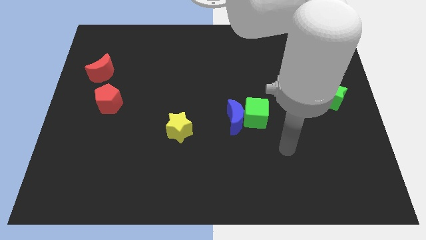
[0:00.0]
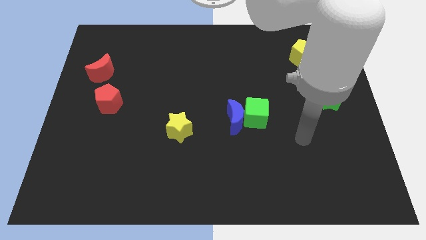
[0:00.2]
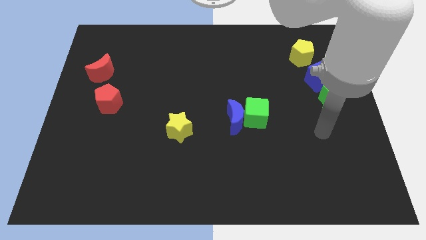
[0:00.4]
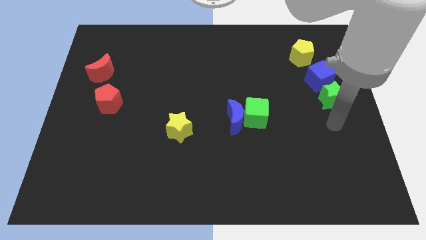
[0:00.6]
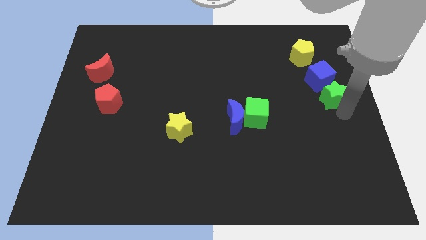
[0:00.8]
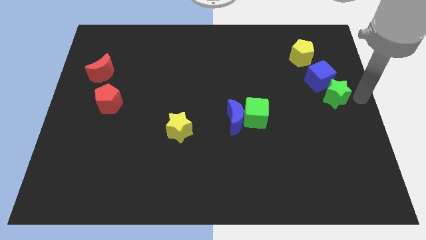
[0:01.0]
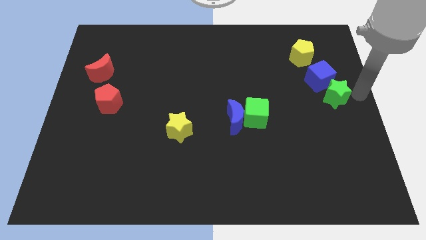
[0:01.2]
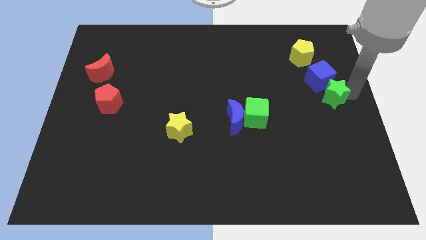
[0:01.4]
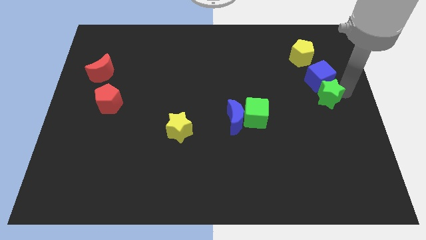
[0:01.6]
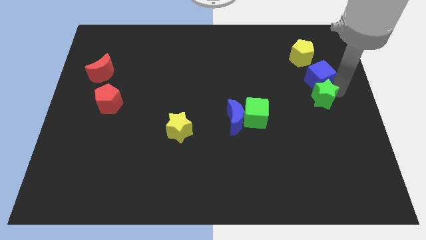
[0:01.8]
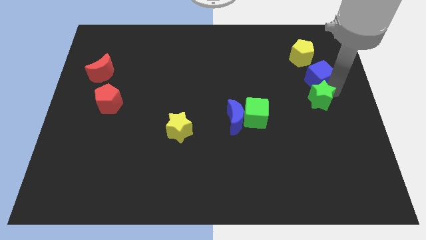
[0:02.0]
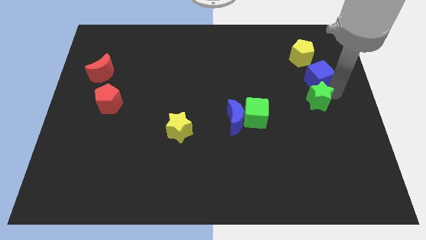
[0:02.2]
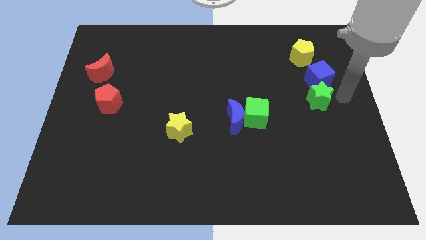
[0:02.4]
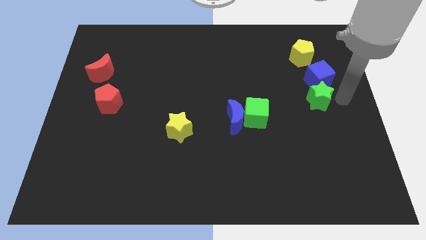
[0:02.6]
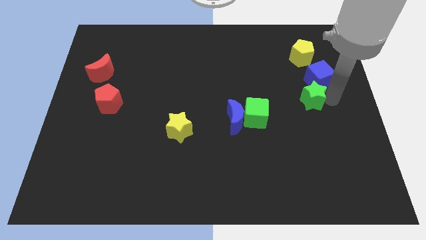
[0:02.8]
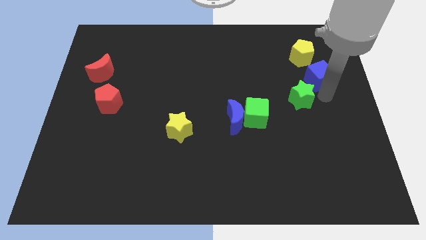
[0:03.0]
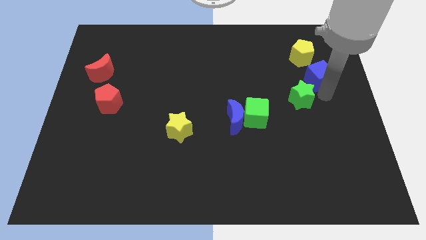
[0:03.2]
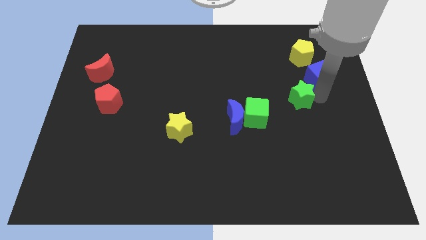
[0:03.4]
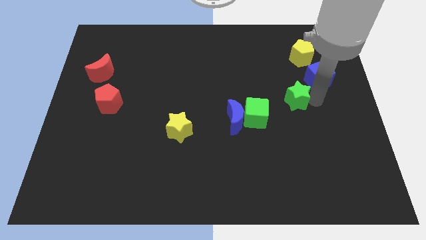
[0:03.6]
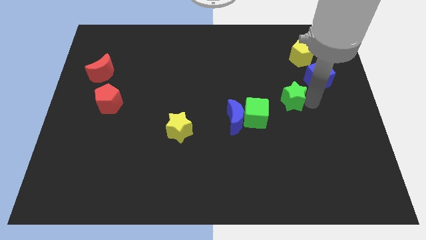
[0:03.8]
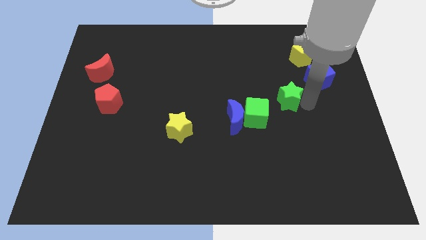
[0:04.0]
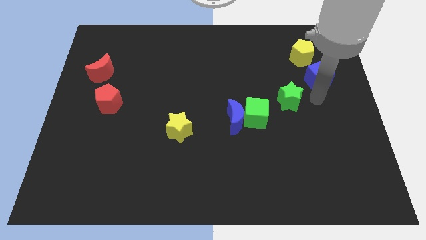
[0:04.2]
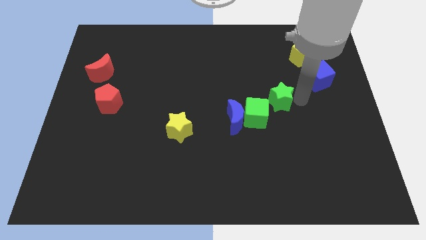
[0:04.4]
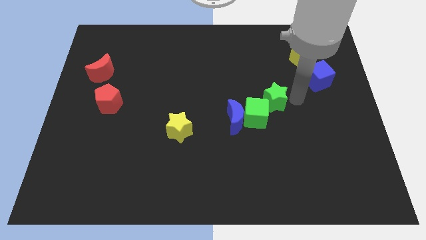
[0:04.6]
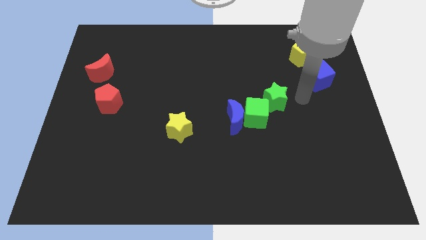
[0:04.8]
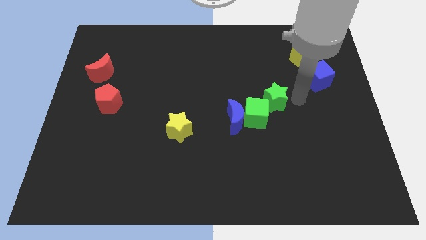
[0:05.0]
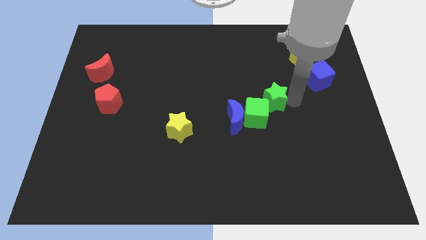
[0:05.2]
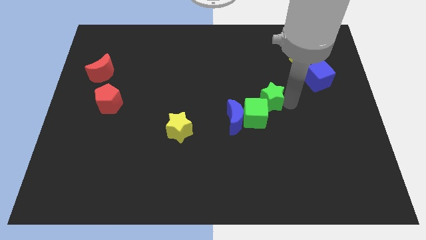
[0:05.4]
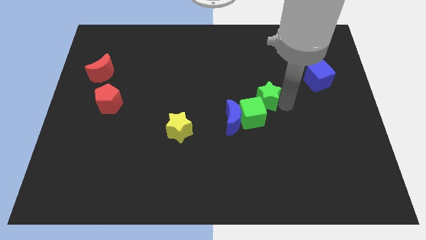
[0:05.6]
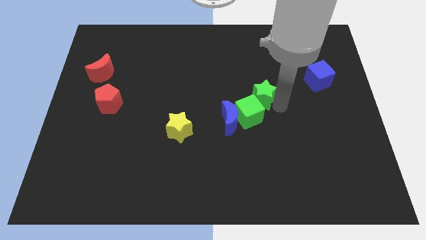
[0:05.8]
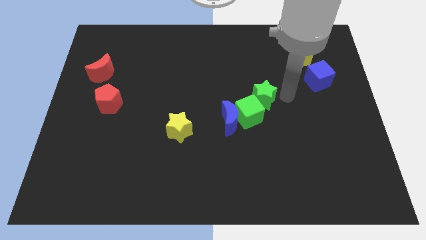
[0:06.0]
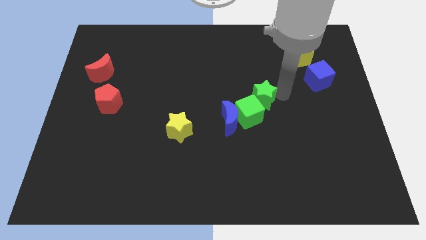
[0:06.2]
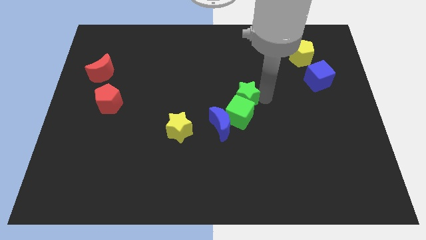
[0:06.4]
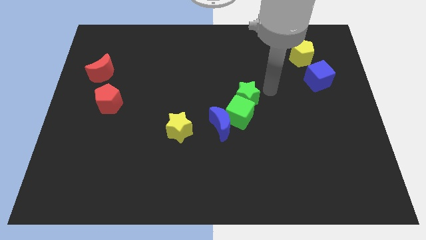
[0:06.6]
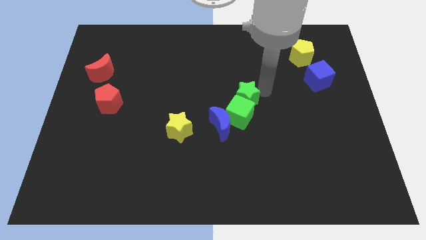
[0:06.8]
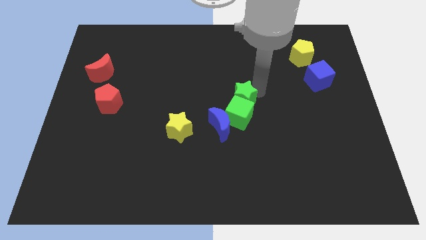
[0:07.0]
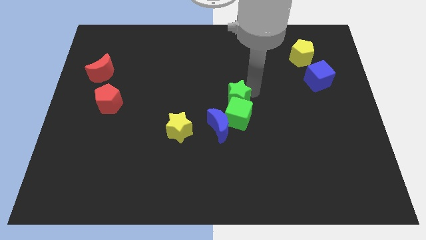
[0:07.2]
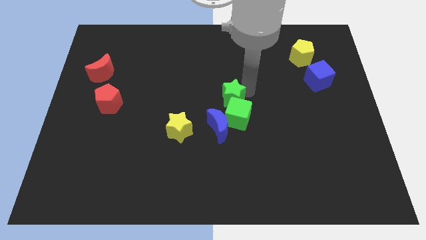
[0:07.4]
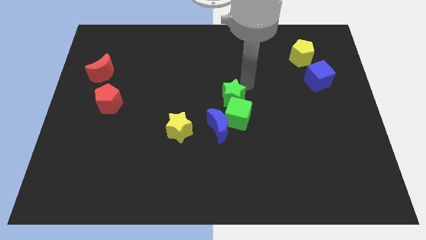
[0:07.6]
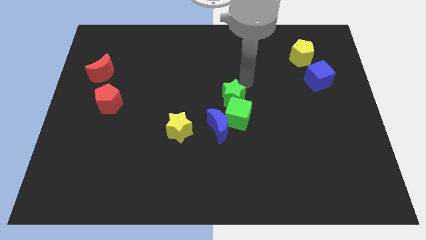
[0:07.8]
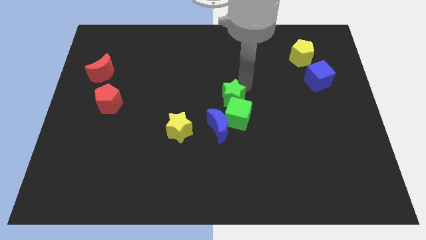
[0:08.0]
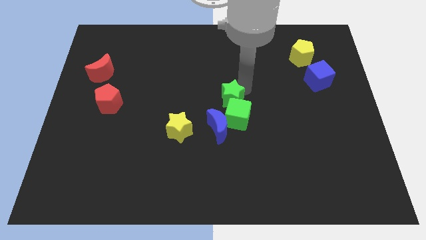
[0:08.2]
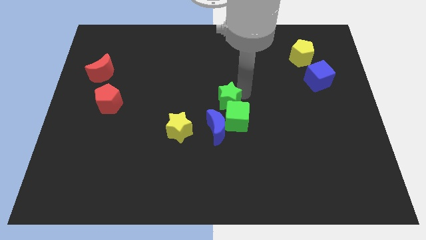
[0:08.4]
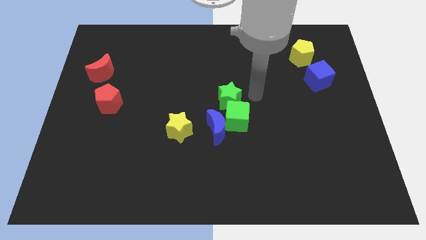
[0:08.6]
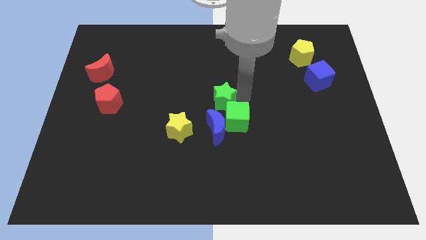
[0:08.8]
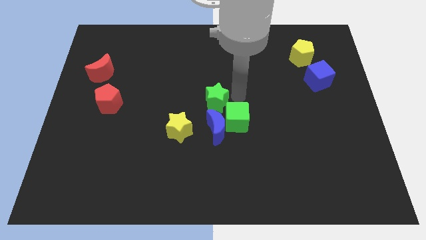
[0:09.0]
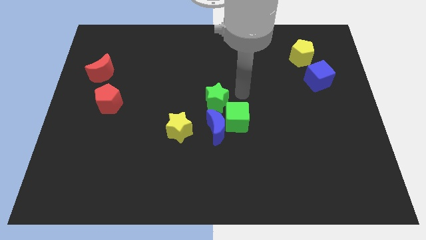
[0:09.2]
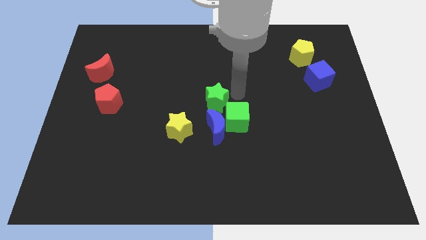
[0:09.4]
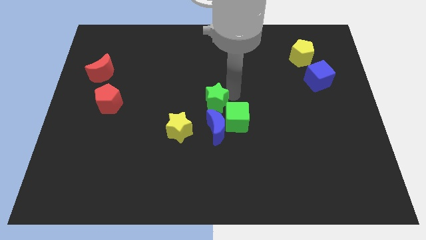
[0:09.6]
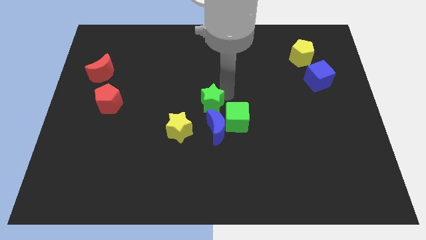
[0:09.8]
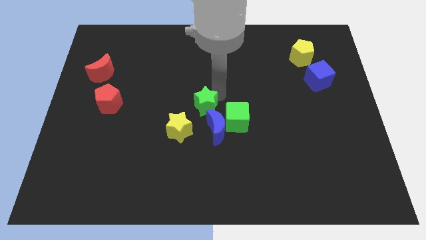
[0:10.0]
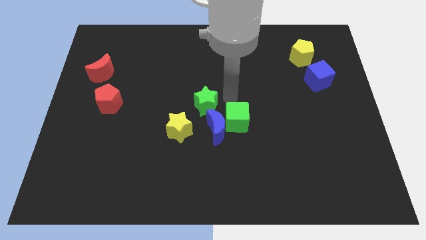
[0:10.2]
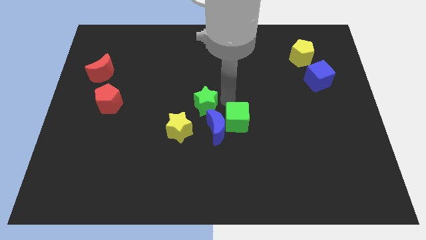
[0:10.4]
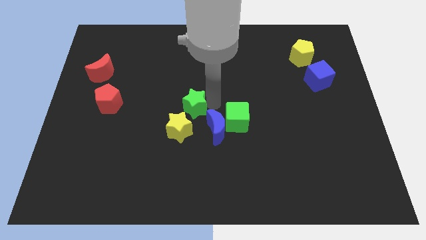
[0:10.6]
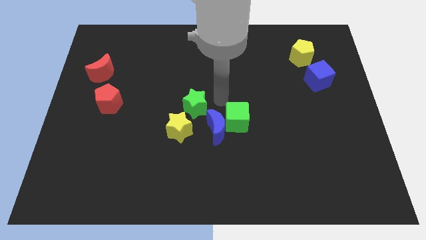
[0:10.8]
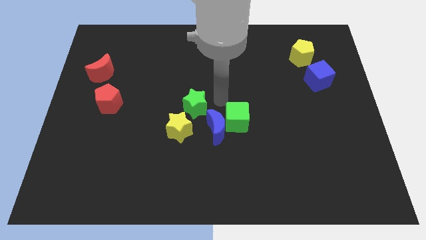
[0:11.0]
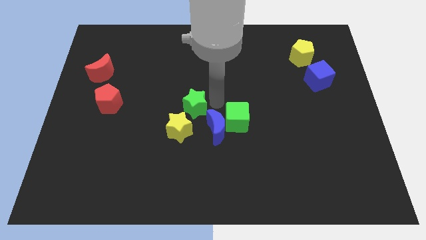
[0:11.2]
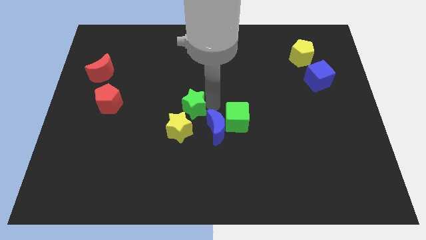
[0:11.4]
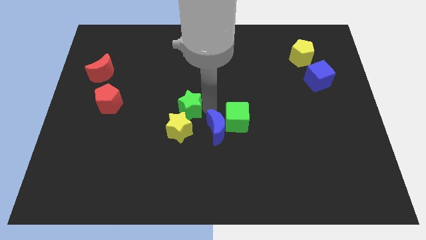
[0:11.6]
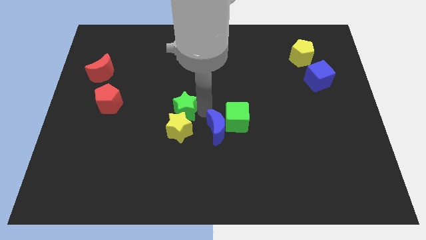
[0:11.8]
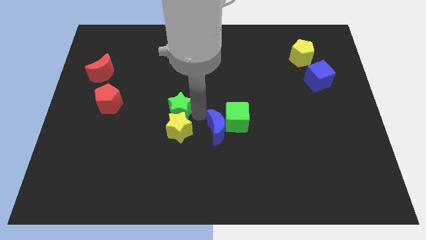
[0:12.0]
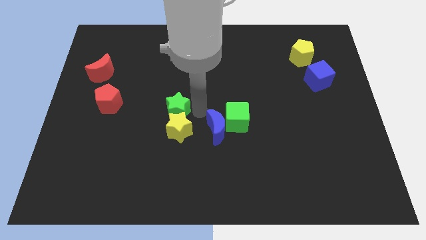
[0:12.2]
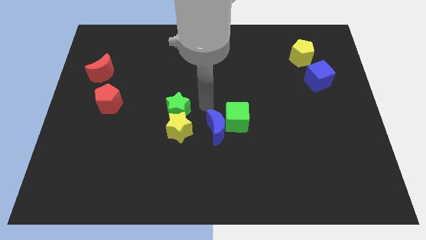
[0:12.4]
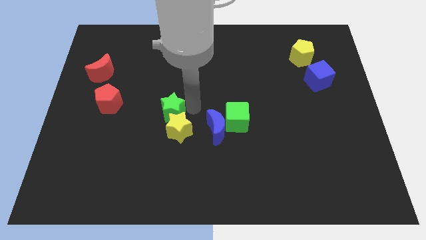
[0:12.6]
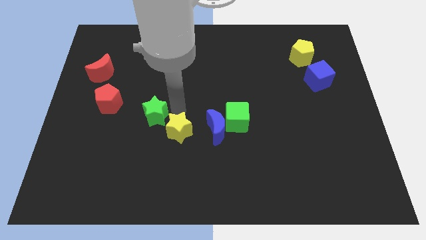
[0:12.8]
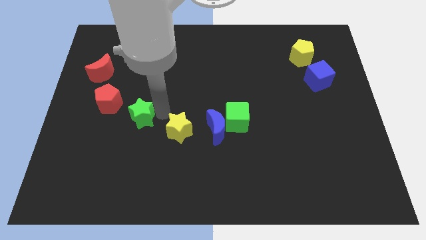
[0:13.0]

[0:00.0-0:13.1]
put the green star to the bottom right of the red pentagon
